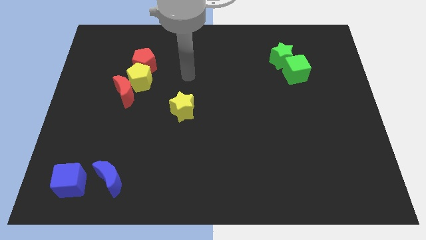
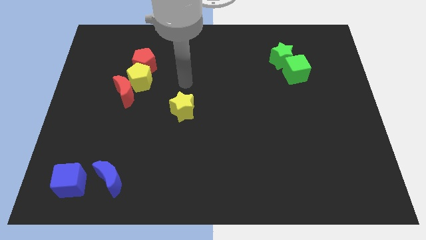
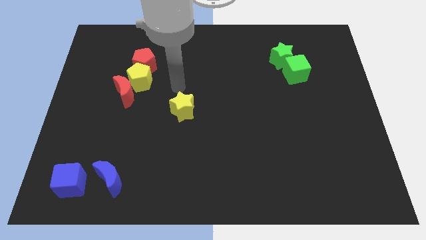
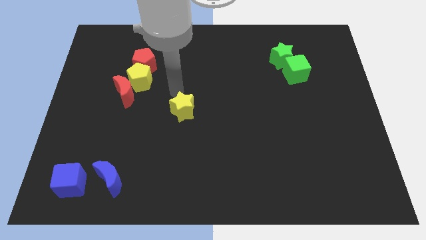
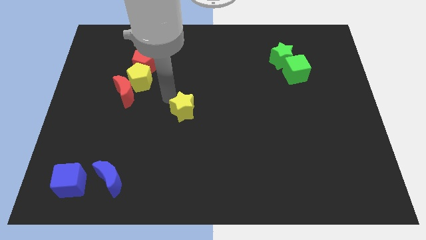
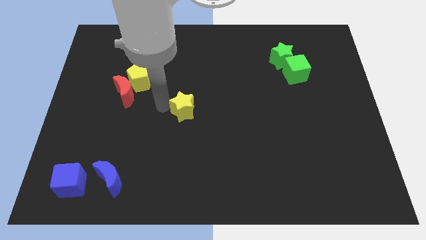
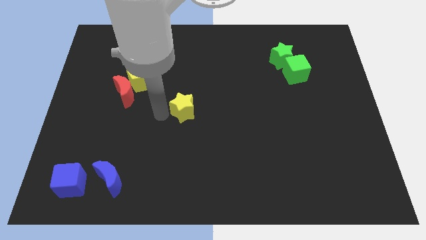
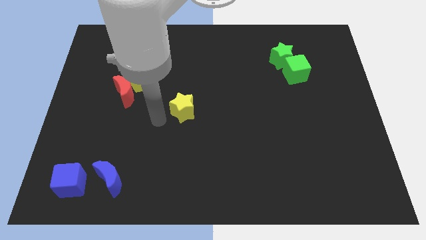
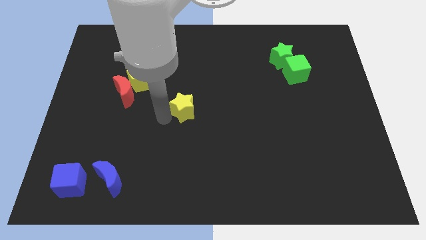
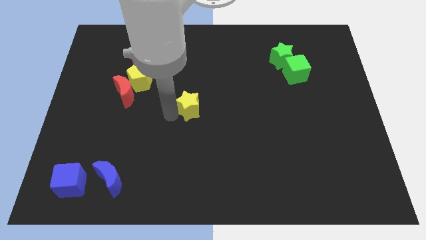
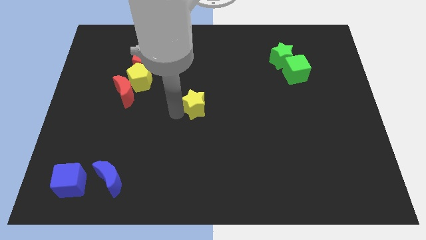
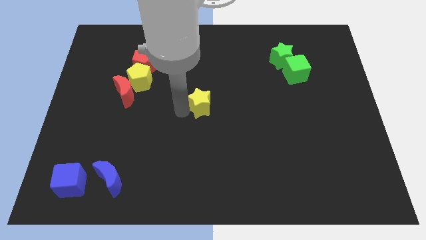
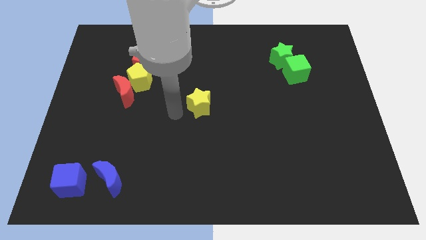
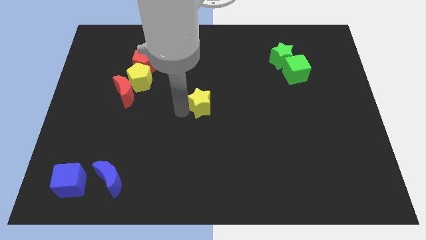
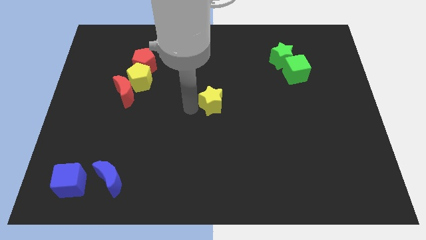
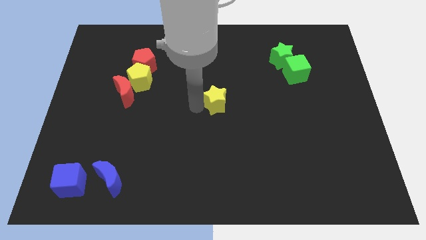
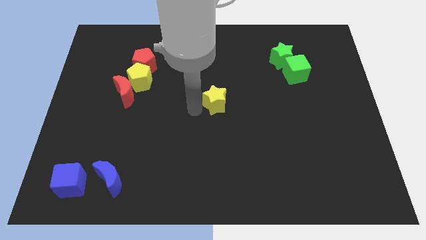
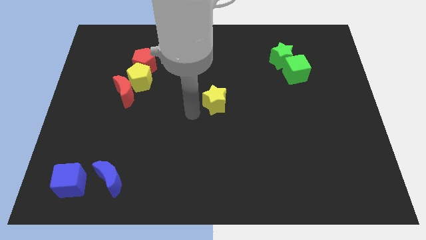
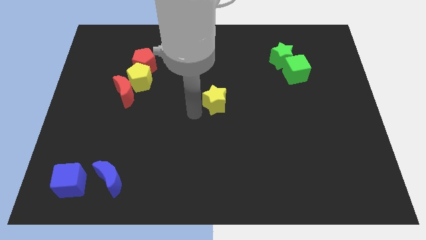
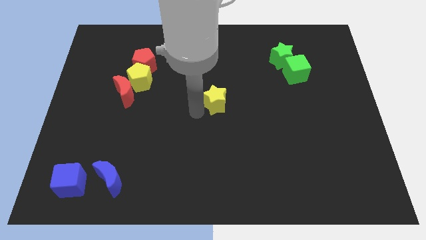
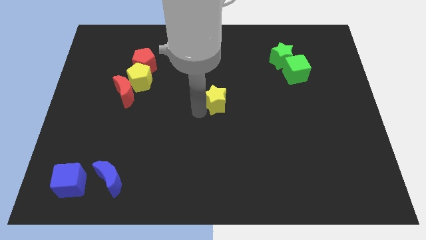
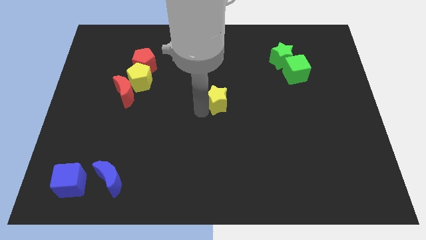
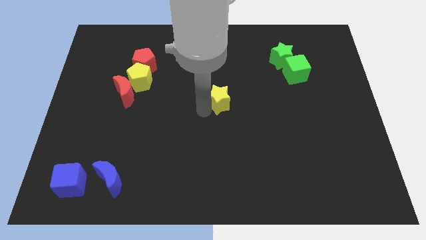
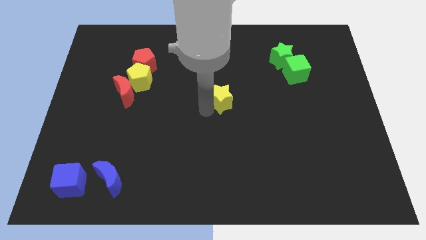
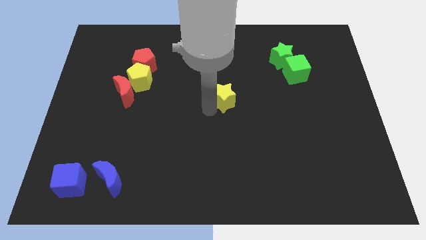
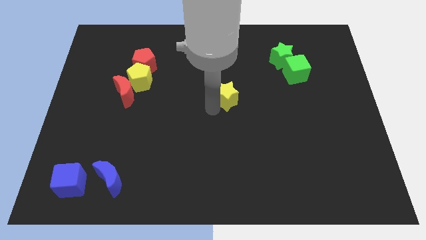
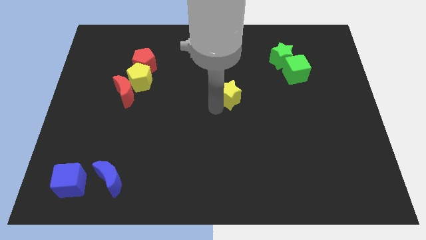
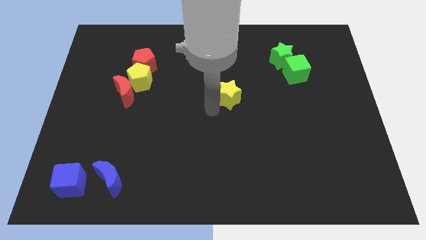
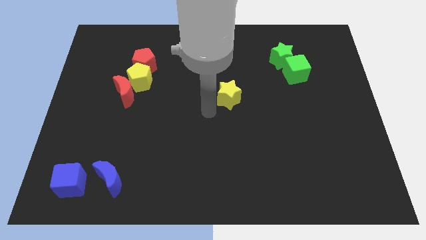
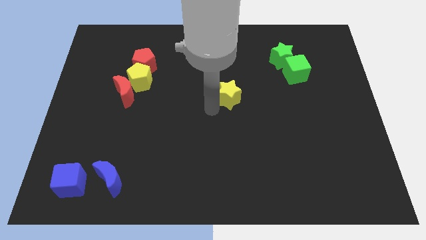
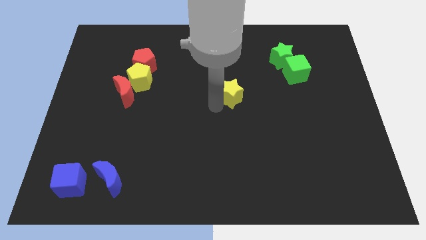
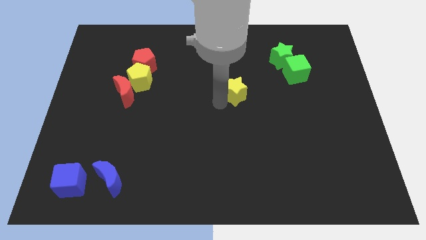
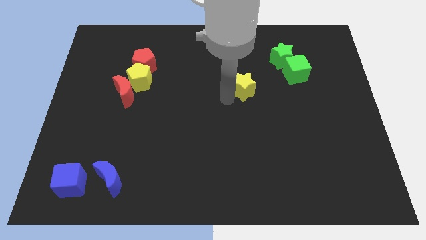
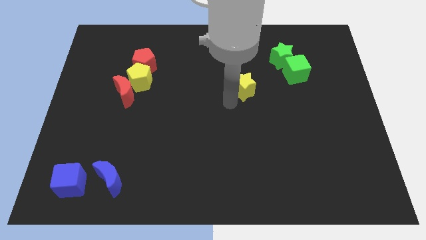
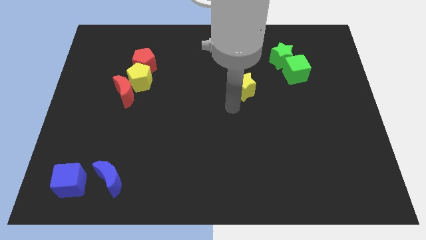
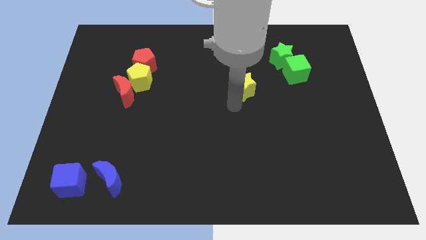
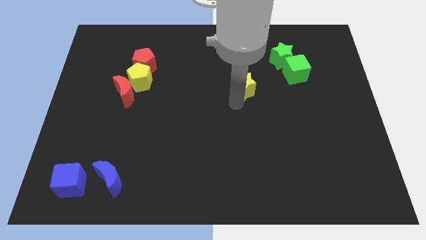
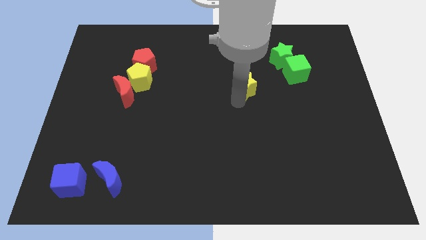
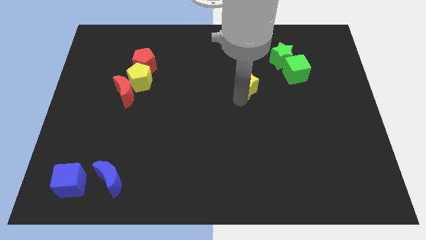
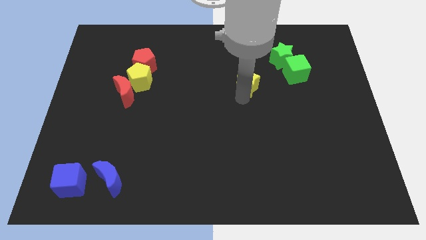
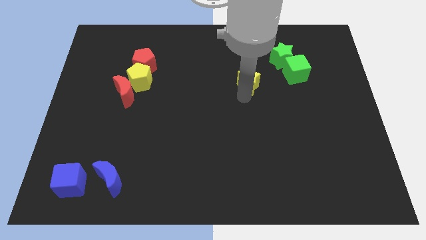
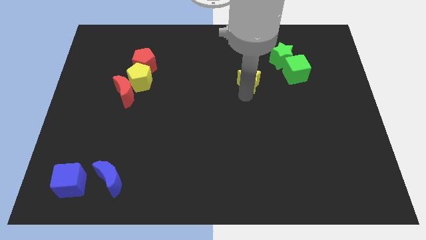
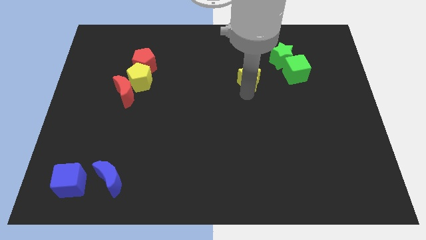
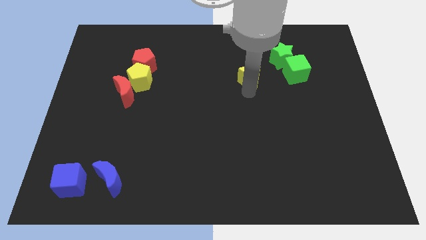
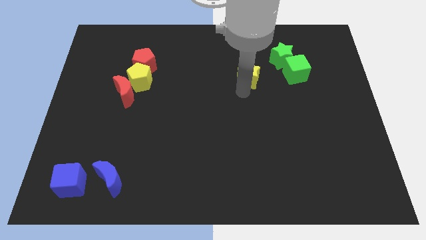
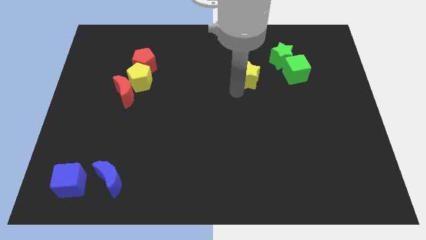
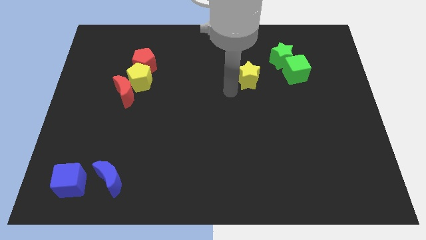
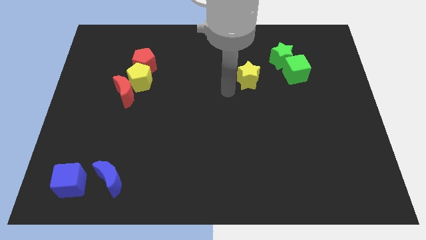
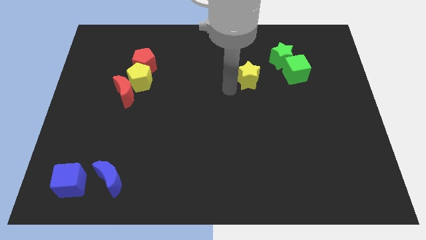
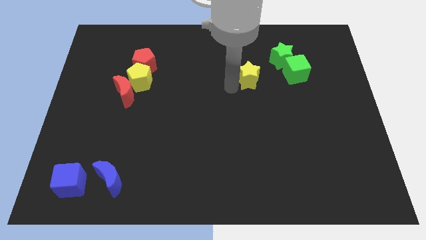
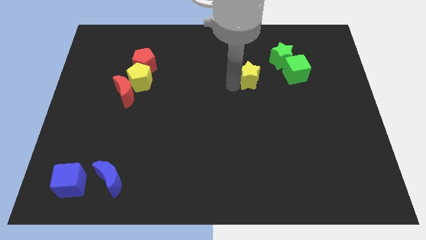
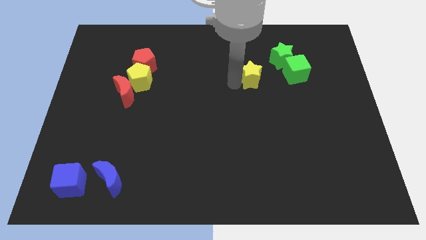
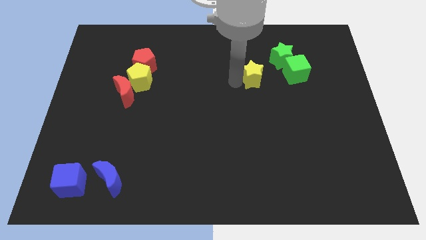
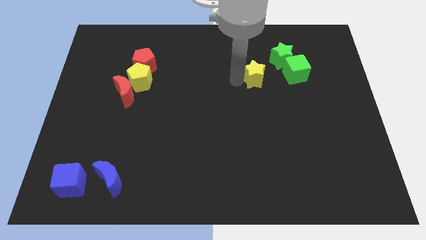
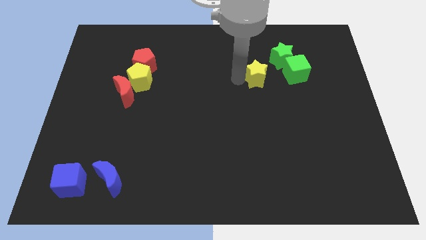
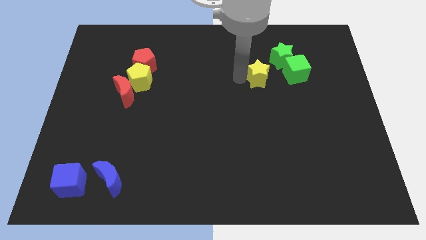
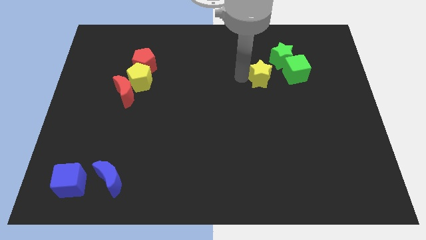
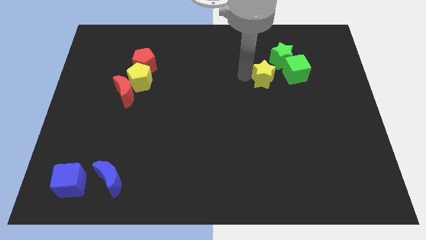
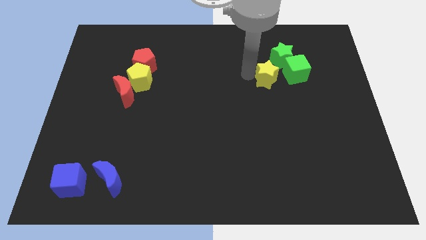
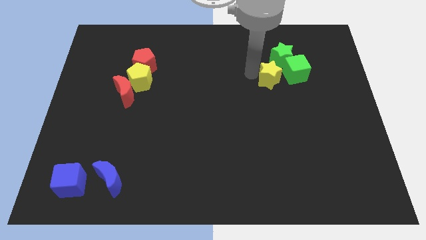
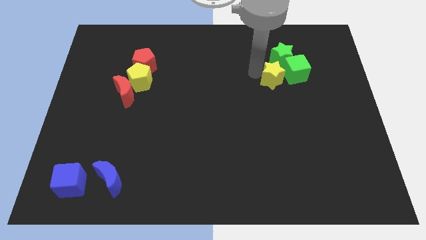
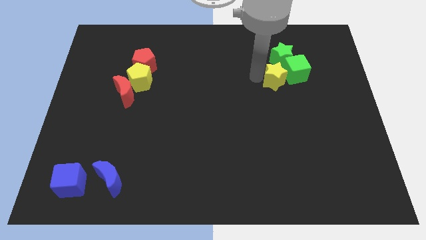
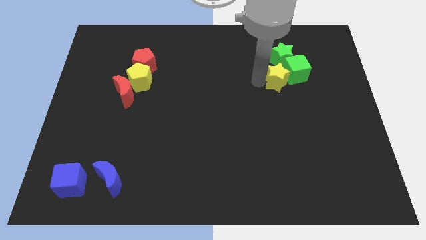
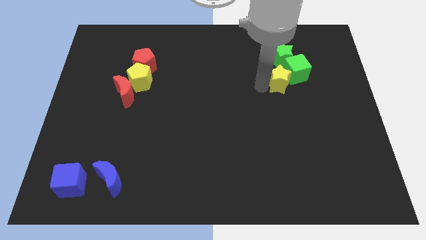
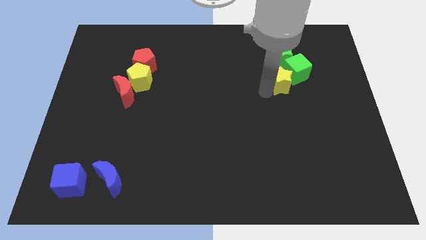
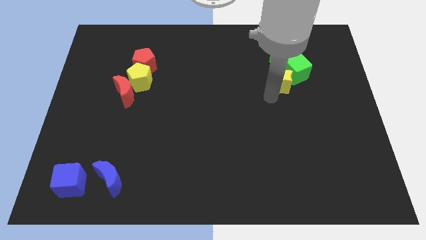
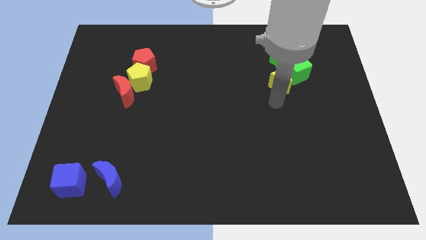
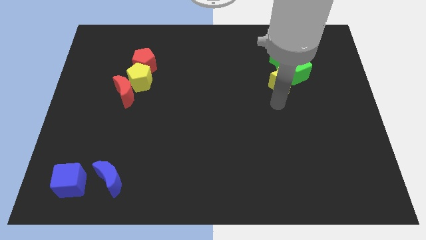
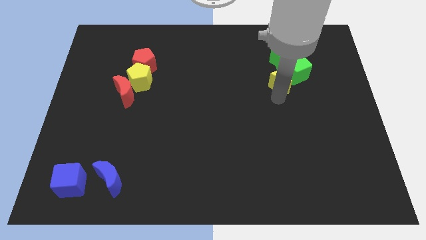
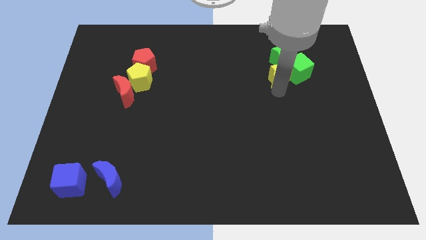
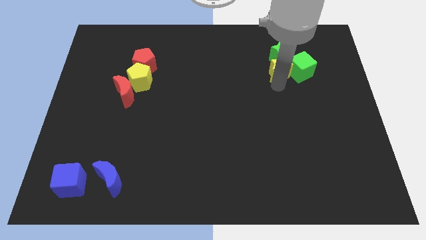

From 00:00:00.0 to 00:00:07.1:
slide the yellow star next to the green star
